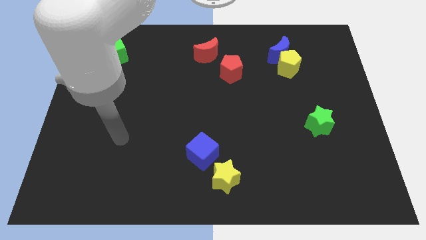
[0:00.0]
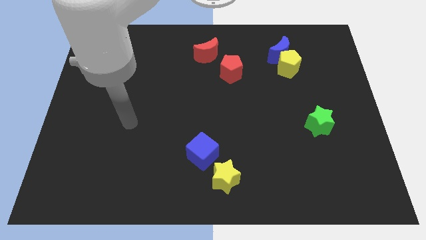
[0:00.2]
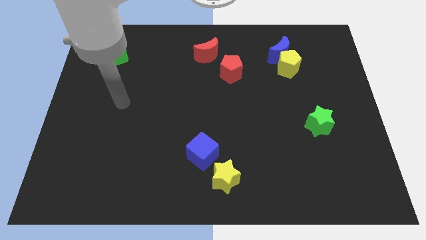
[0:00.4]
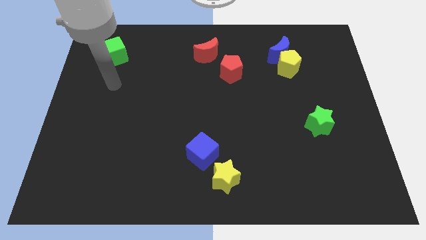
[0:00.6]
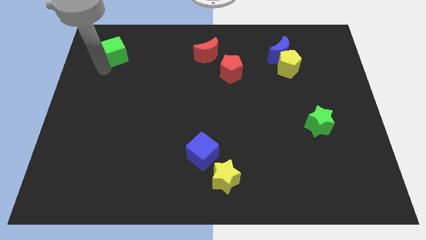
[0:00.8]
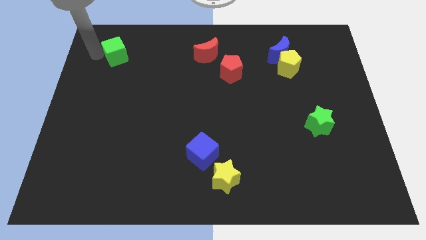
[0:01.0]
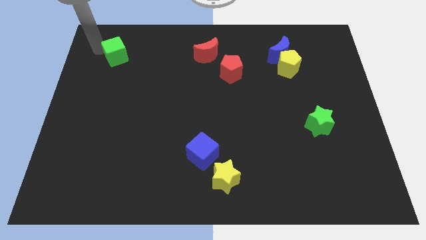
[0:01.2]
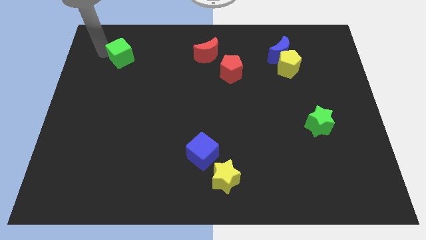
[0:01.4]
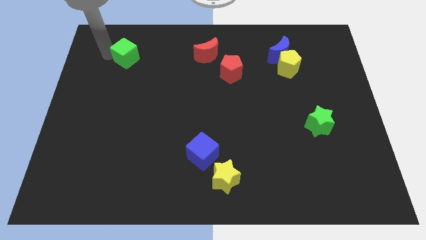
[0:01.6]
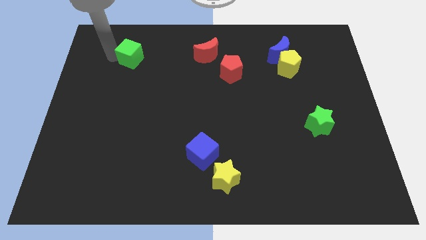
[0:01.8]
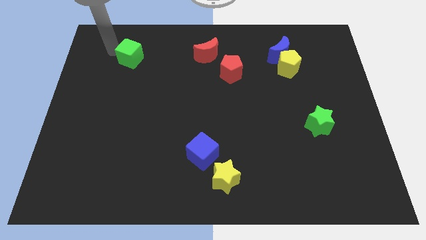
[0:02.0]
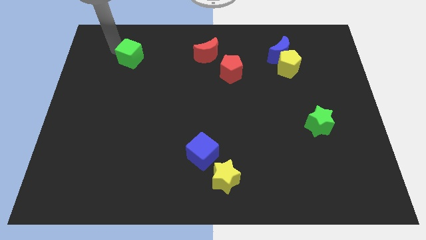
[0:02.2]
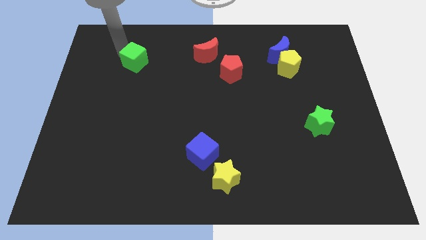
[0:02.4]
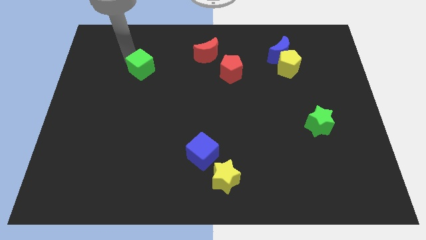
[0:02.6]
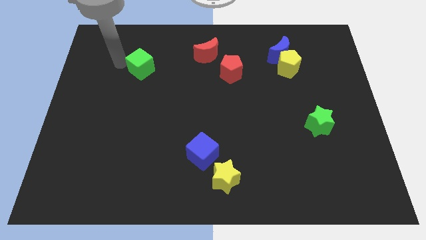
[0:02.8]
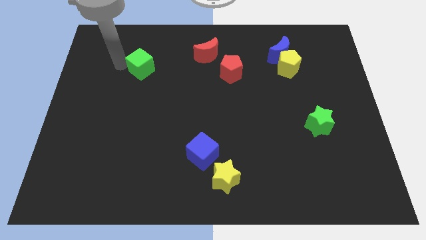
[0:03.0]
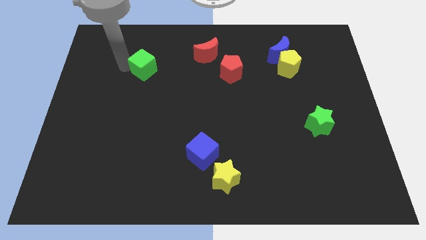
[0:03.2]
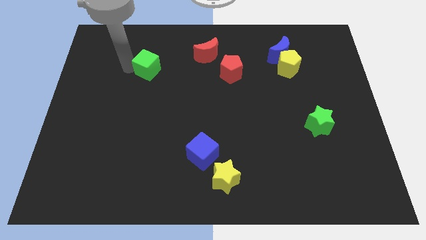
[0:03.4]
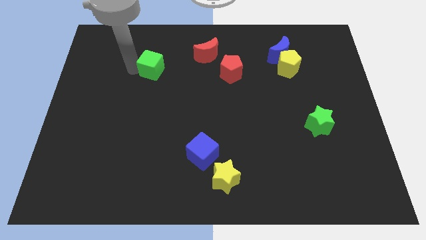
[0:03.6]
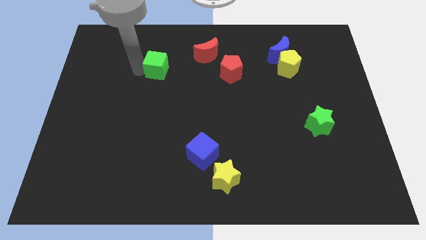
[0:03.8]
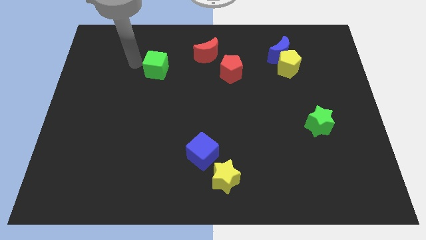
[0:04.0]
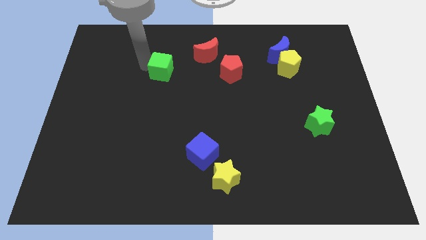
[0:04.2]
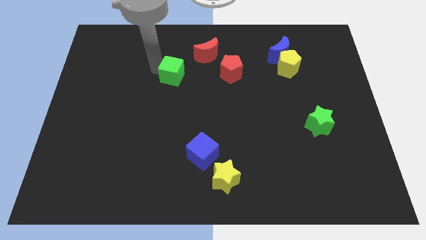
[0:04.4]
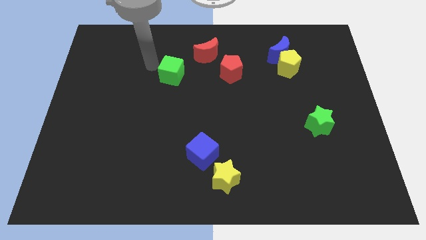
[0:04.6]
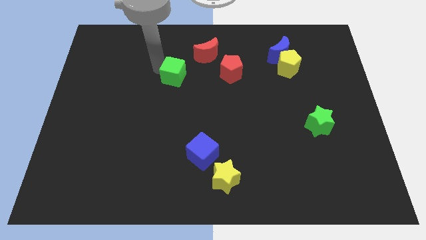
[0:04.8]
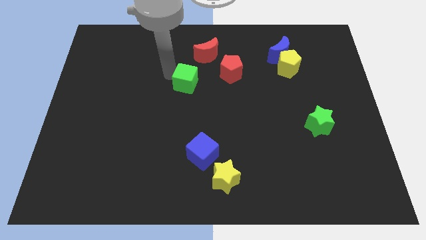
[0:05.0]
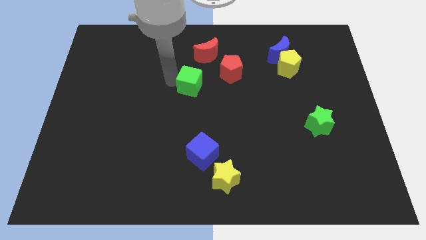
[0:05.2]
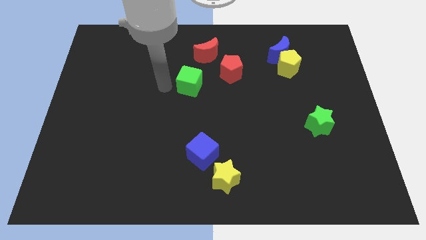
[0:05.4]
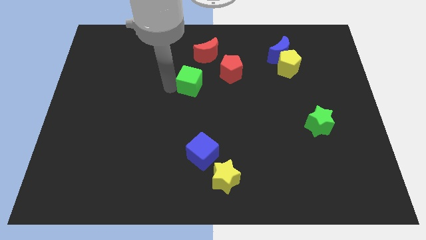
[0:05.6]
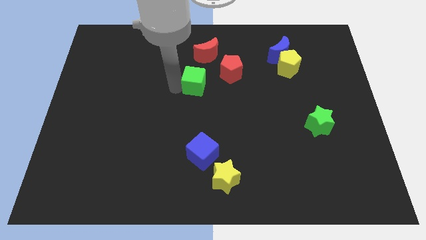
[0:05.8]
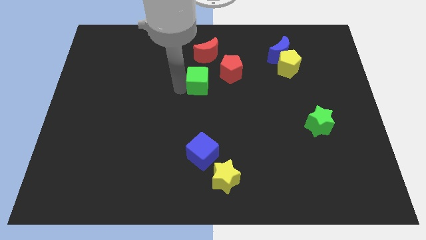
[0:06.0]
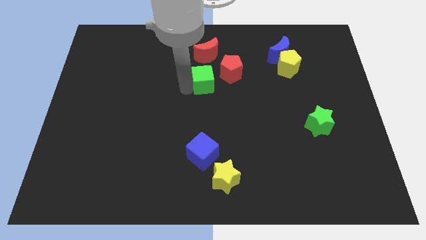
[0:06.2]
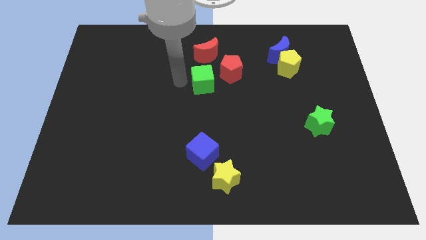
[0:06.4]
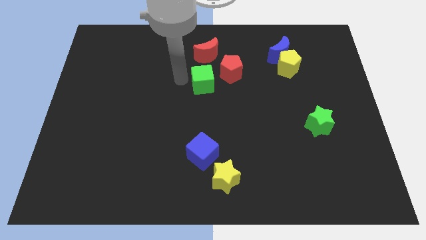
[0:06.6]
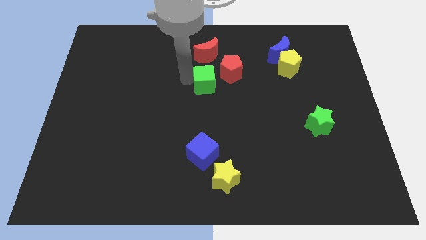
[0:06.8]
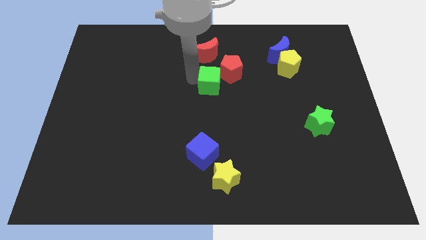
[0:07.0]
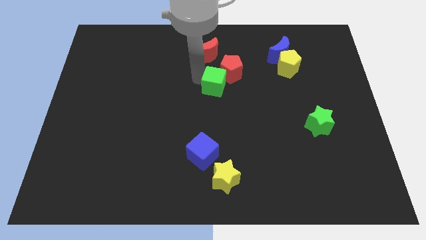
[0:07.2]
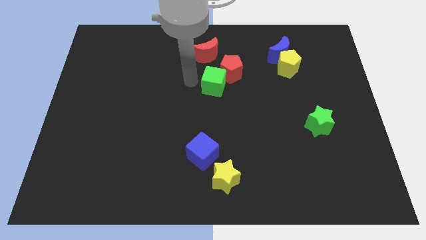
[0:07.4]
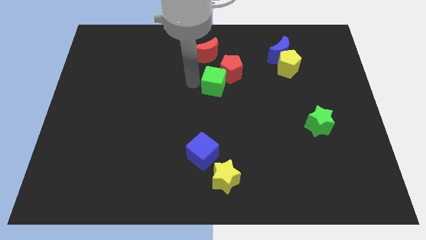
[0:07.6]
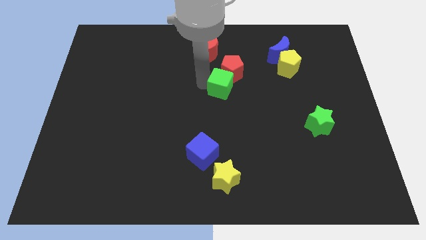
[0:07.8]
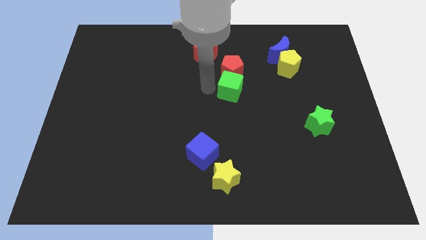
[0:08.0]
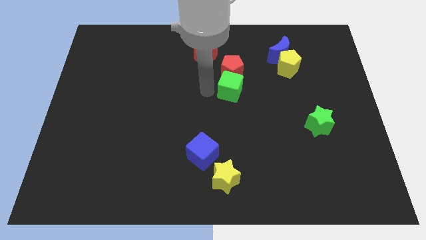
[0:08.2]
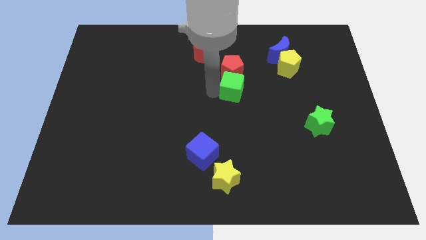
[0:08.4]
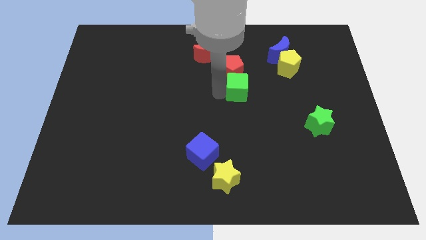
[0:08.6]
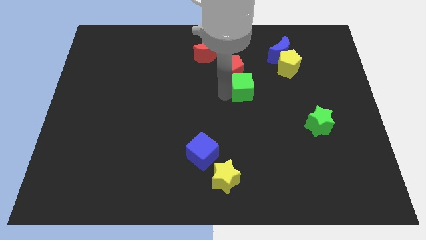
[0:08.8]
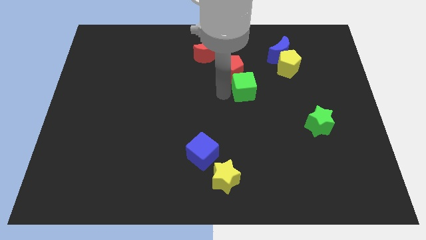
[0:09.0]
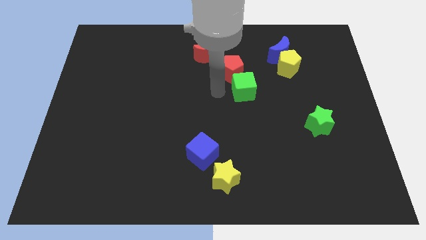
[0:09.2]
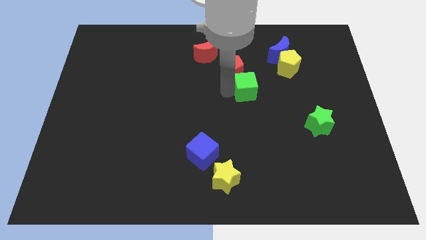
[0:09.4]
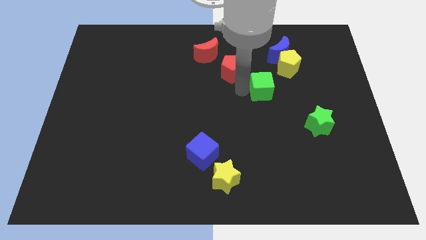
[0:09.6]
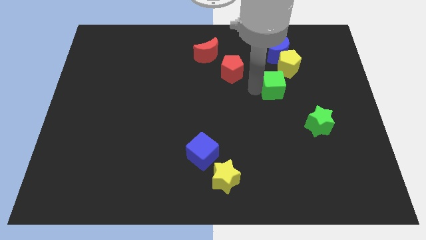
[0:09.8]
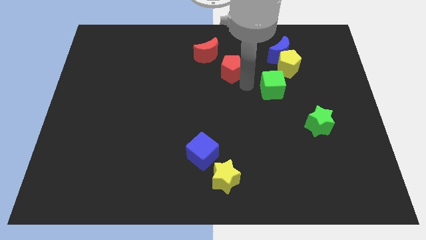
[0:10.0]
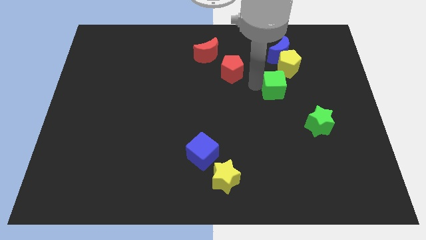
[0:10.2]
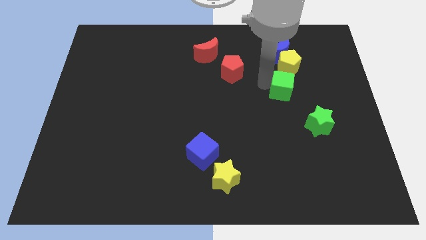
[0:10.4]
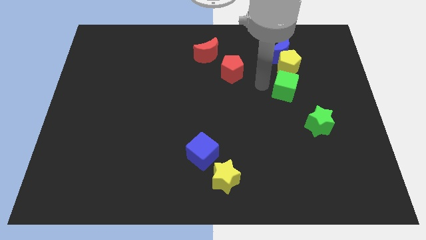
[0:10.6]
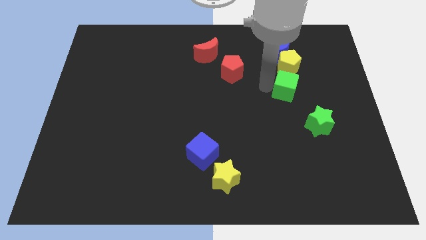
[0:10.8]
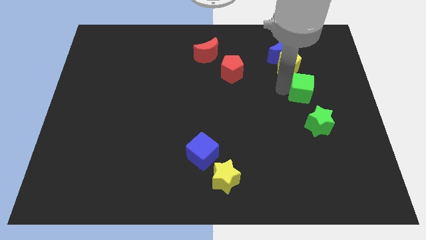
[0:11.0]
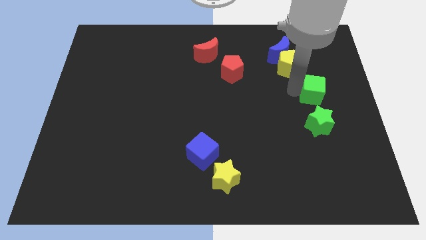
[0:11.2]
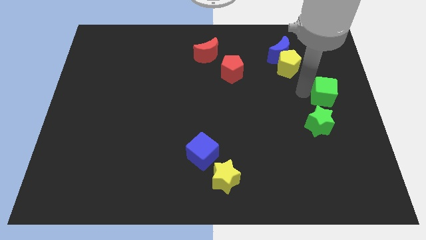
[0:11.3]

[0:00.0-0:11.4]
move the green cube to the center right
